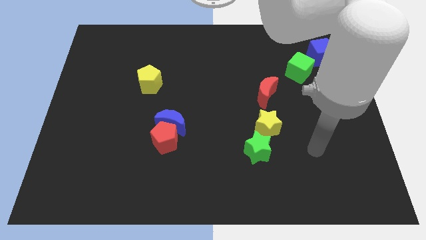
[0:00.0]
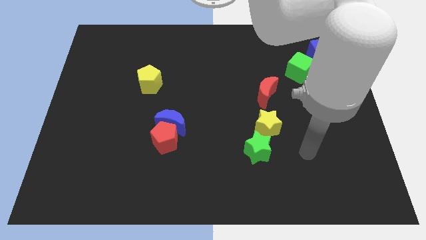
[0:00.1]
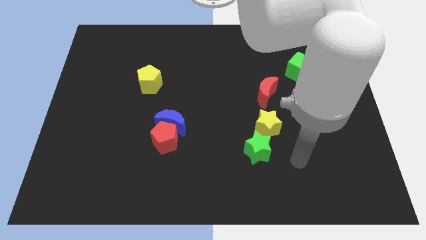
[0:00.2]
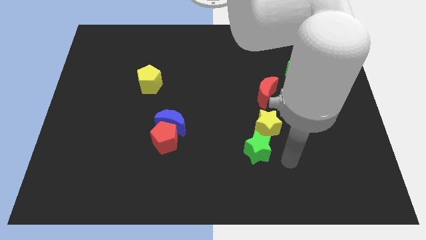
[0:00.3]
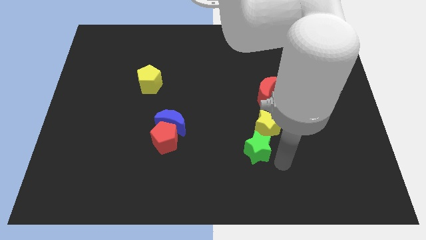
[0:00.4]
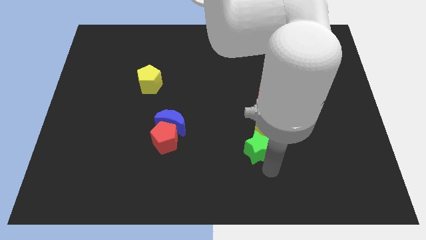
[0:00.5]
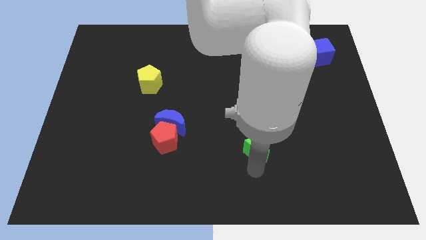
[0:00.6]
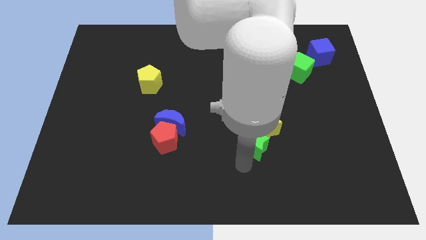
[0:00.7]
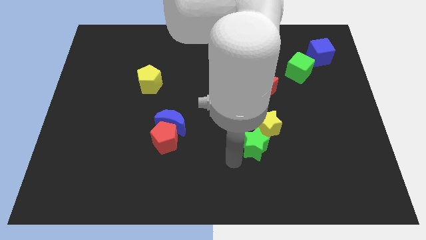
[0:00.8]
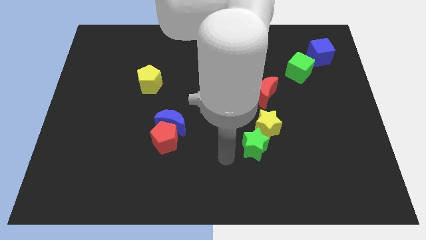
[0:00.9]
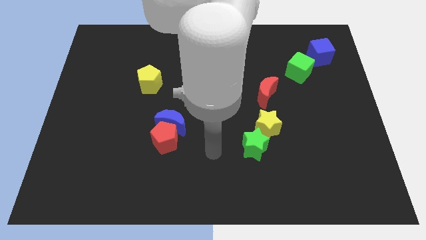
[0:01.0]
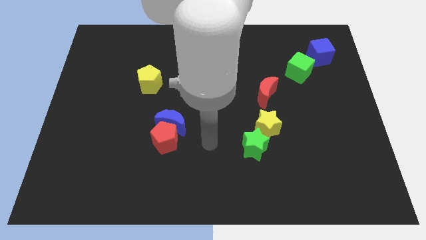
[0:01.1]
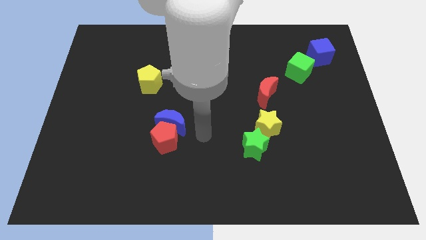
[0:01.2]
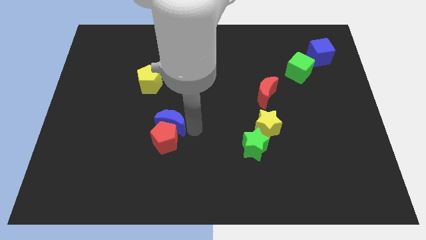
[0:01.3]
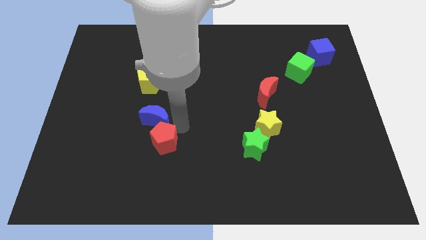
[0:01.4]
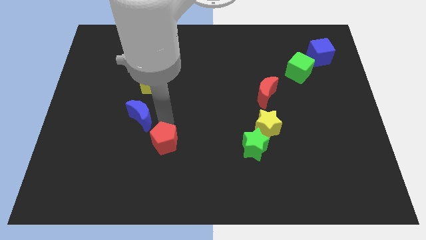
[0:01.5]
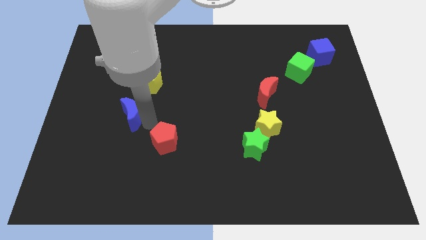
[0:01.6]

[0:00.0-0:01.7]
separate the red pentagon from the blue moon

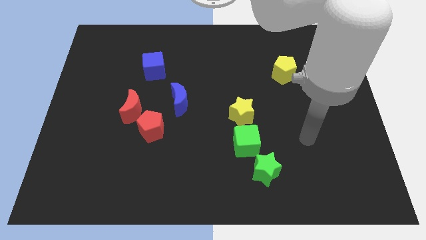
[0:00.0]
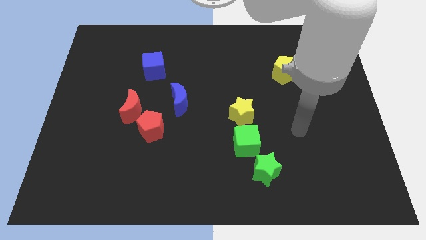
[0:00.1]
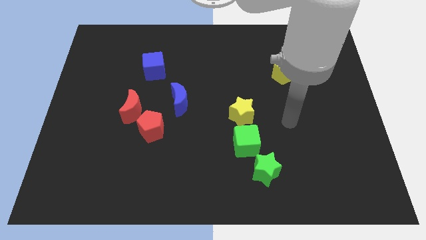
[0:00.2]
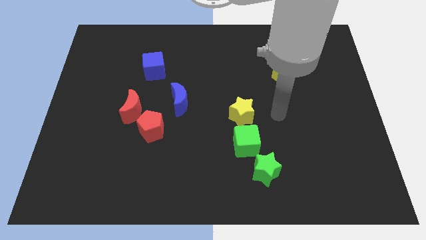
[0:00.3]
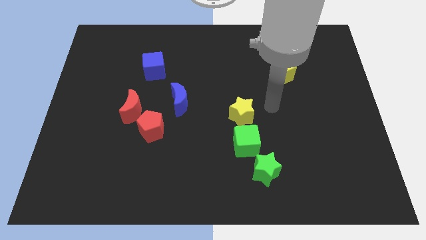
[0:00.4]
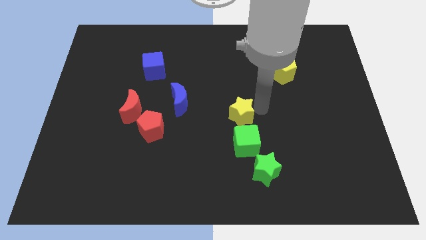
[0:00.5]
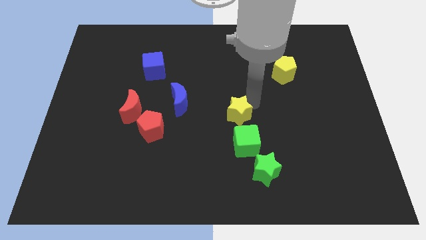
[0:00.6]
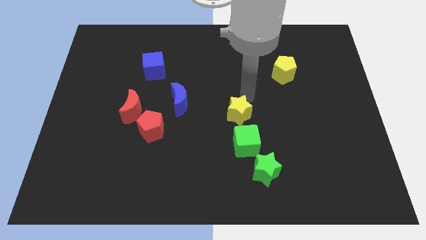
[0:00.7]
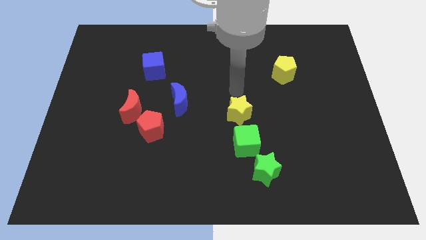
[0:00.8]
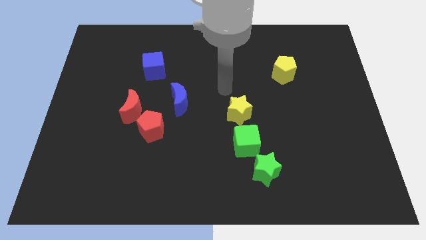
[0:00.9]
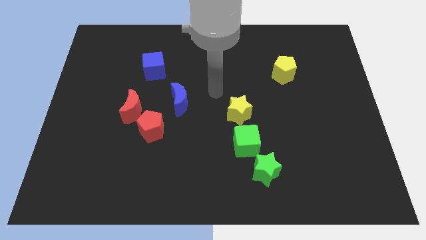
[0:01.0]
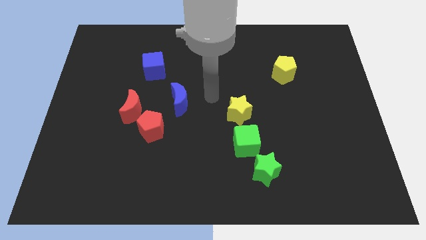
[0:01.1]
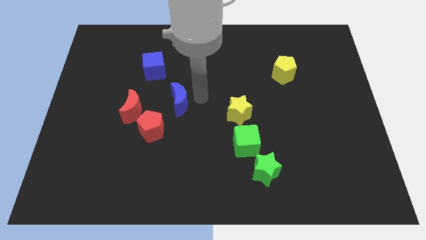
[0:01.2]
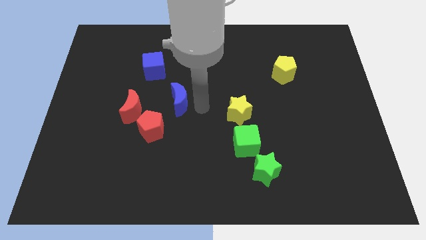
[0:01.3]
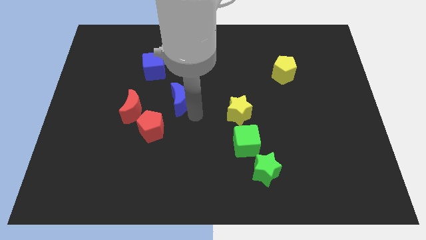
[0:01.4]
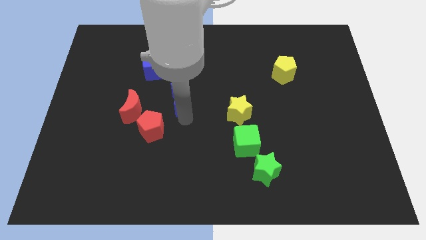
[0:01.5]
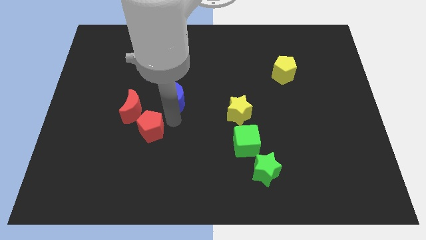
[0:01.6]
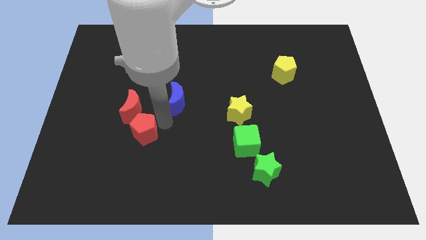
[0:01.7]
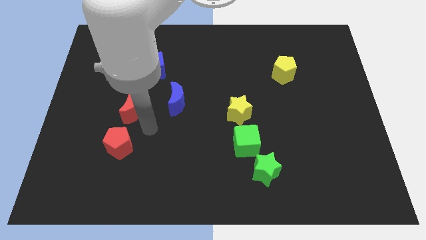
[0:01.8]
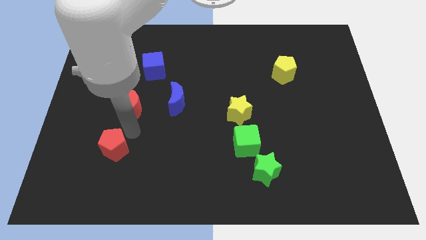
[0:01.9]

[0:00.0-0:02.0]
pull the red moon apart from the red pentagon

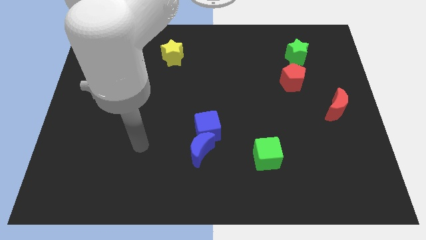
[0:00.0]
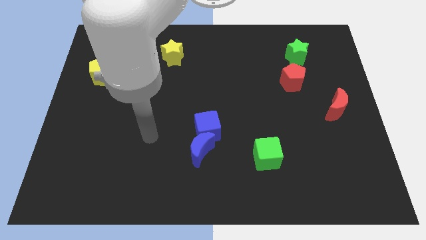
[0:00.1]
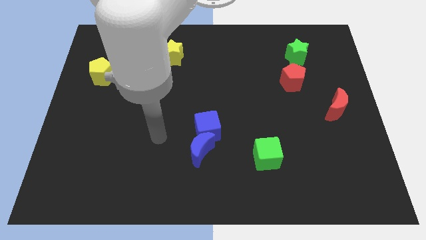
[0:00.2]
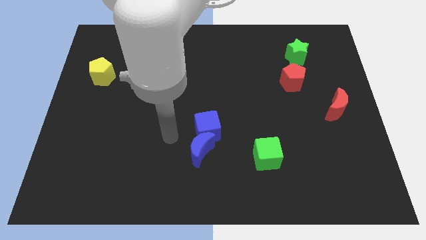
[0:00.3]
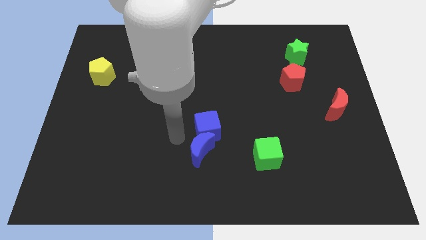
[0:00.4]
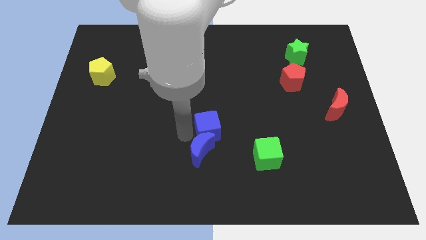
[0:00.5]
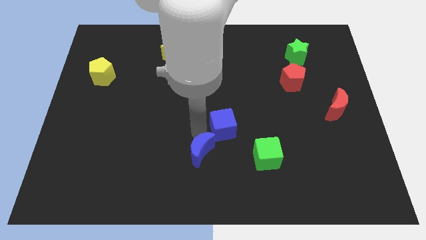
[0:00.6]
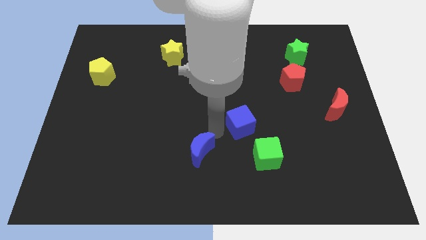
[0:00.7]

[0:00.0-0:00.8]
move the blue moon away from the blue cube

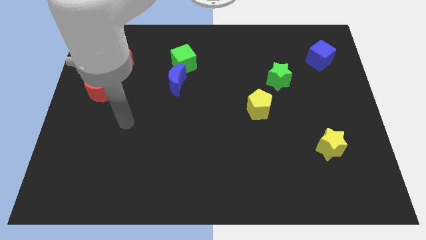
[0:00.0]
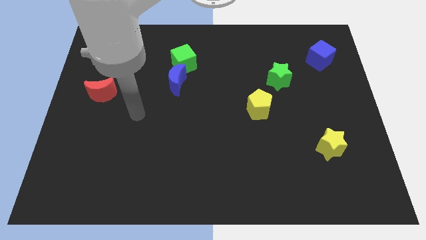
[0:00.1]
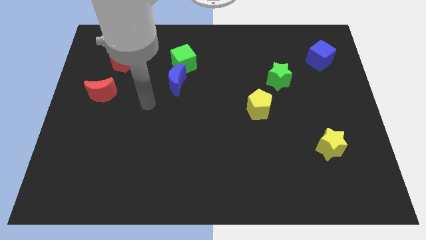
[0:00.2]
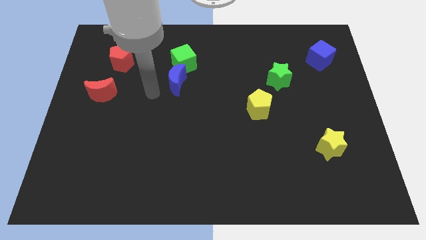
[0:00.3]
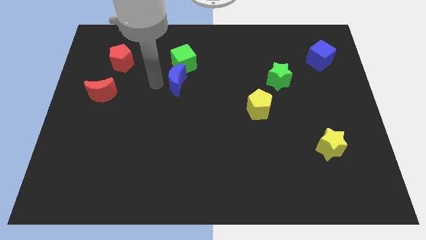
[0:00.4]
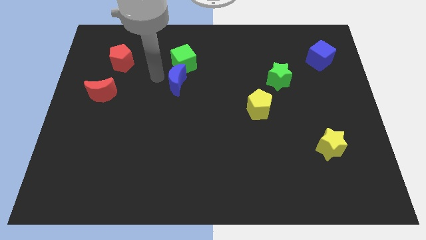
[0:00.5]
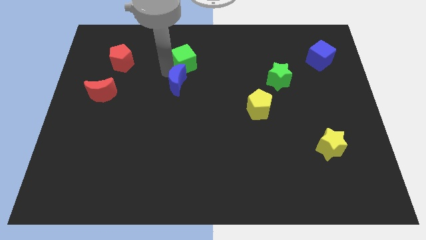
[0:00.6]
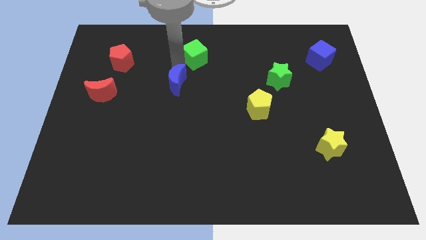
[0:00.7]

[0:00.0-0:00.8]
separate the blue moon from the green cube

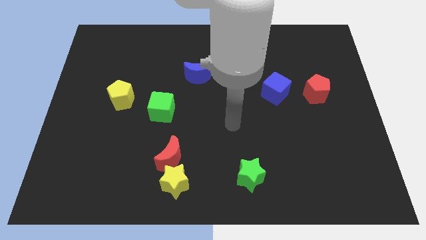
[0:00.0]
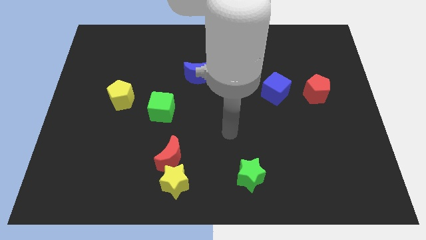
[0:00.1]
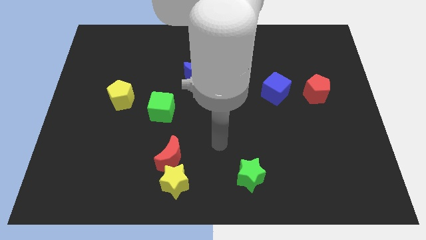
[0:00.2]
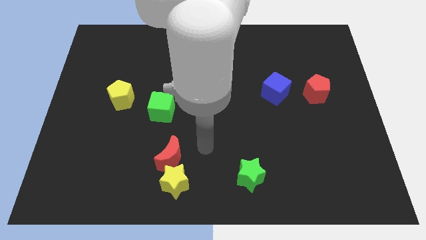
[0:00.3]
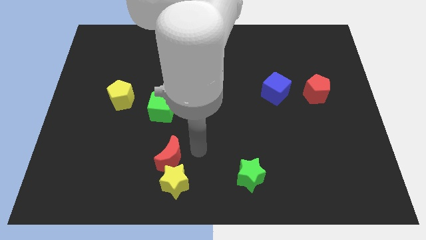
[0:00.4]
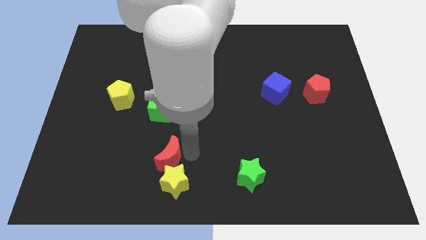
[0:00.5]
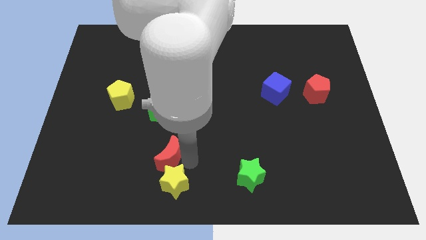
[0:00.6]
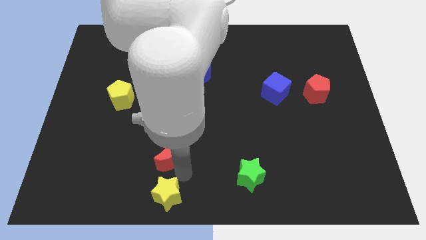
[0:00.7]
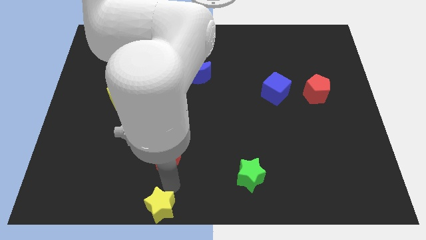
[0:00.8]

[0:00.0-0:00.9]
separate the red moon from the yellow star

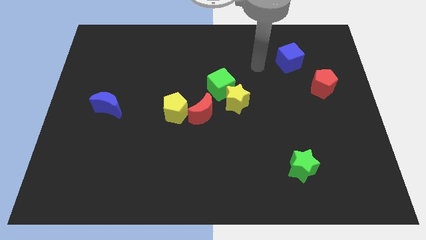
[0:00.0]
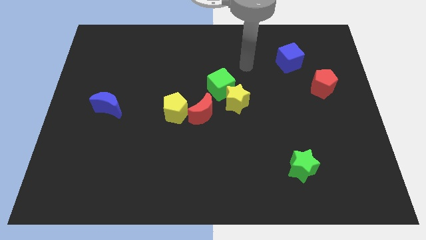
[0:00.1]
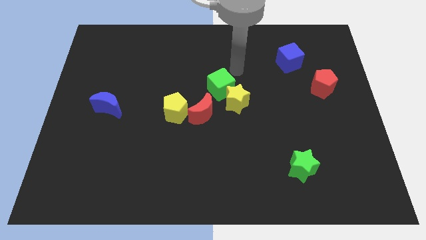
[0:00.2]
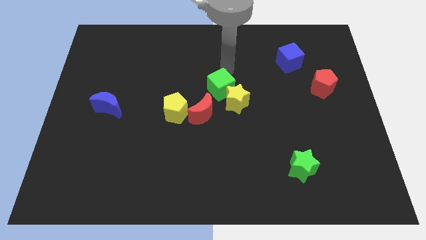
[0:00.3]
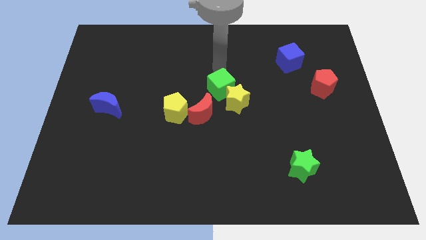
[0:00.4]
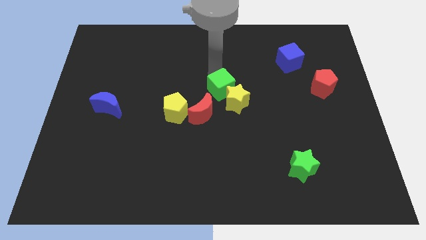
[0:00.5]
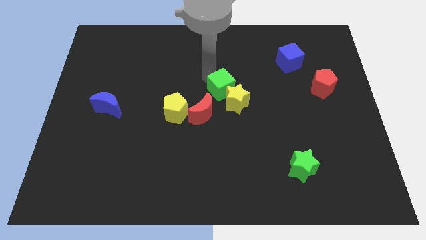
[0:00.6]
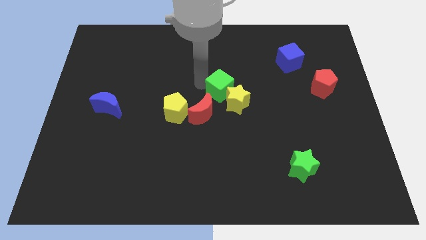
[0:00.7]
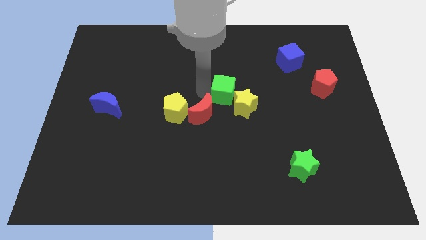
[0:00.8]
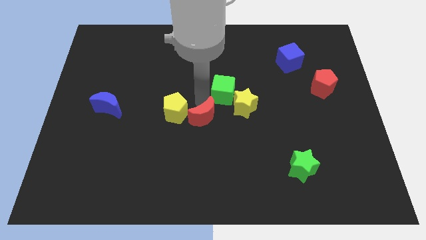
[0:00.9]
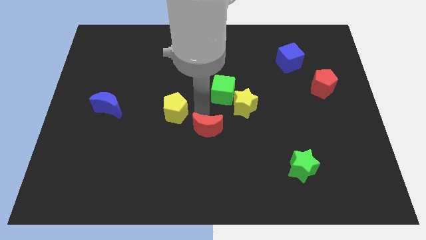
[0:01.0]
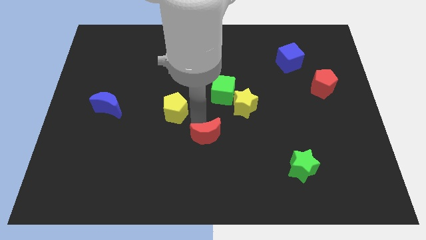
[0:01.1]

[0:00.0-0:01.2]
move the yellow pentagon away from the red moon

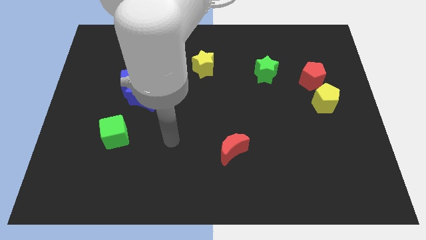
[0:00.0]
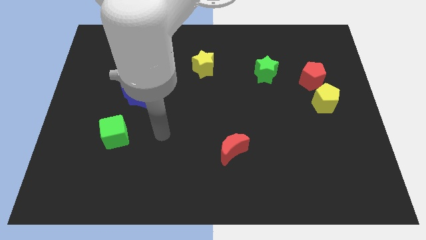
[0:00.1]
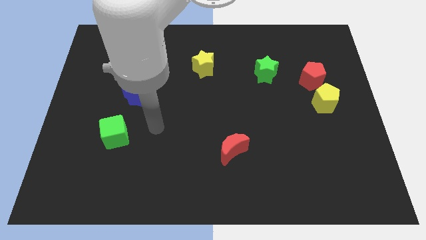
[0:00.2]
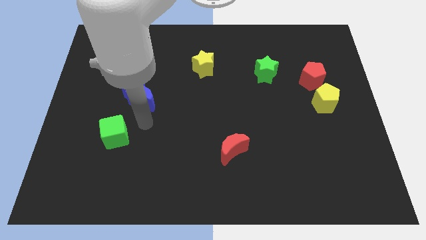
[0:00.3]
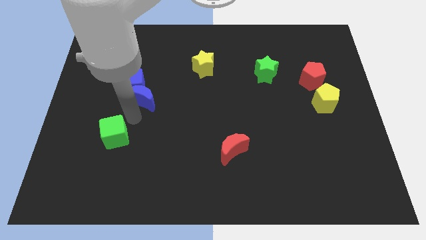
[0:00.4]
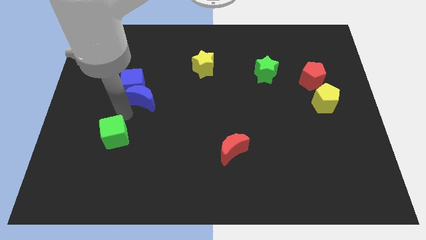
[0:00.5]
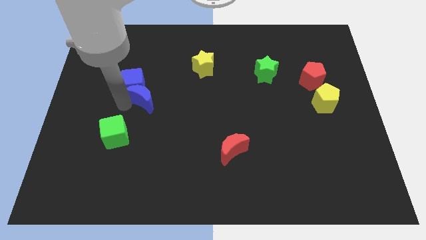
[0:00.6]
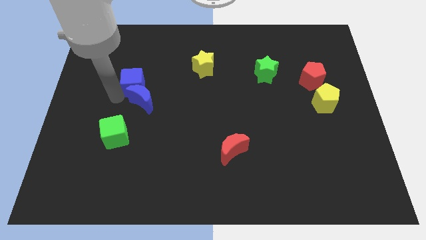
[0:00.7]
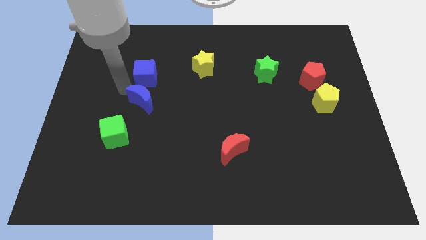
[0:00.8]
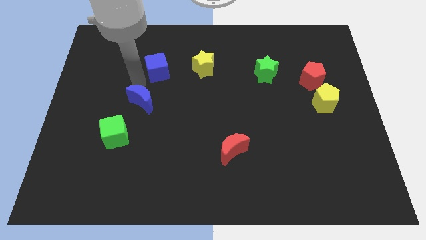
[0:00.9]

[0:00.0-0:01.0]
separate the blue moon from the blue cube

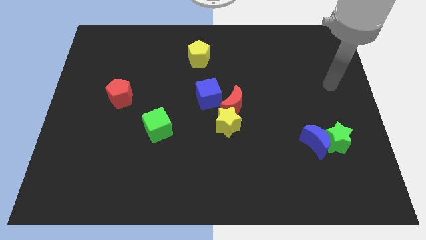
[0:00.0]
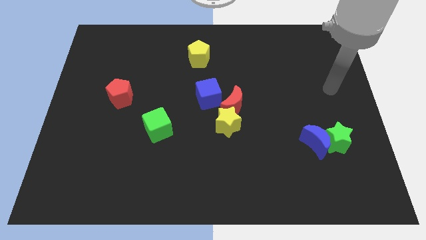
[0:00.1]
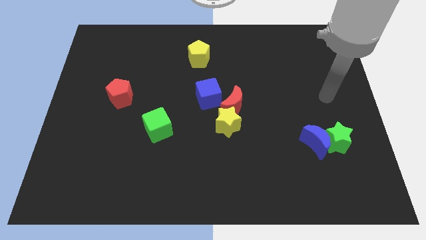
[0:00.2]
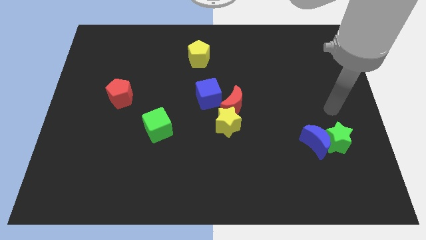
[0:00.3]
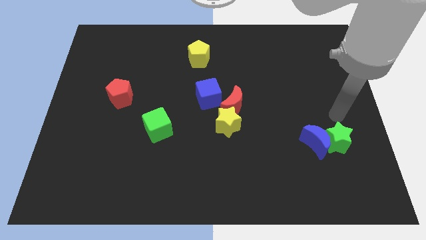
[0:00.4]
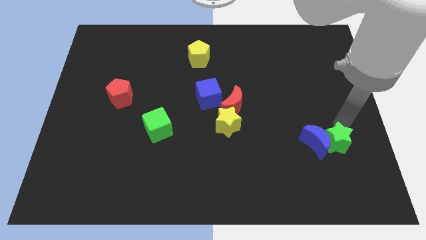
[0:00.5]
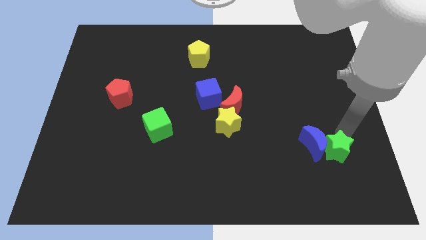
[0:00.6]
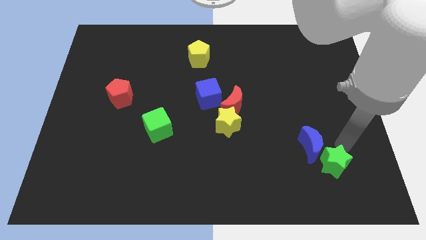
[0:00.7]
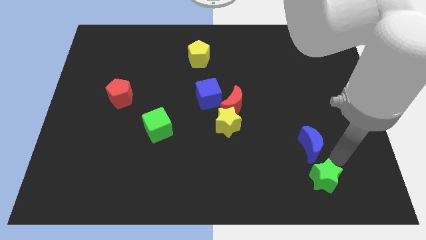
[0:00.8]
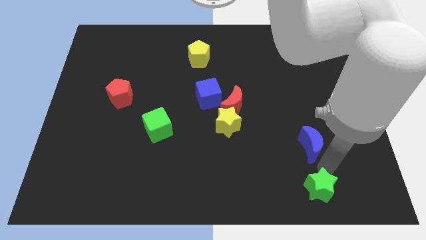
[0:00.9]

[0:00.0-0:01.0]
separate the blue moon from the green star
